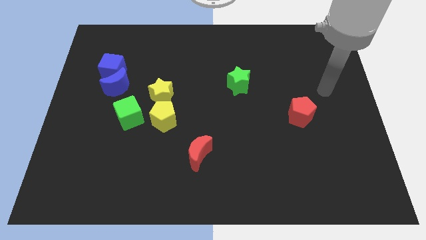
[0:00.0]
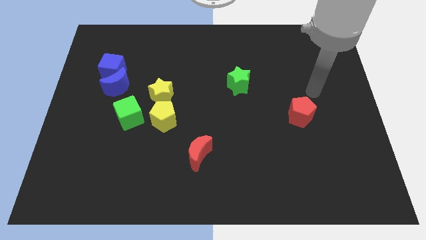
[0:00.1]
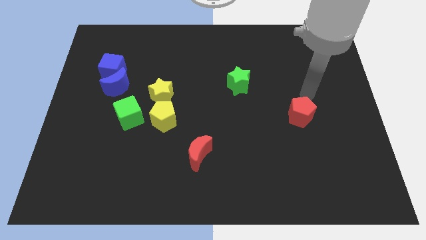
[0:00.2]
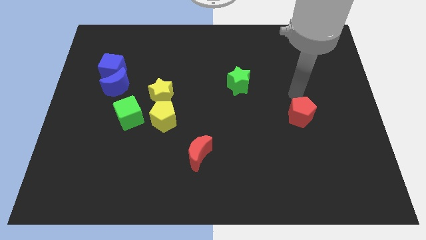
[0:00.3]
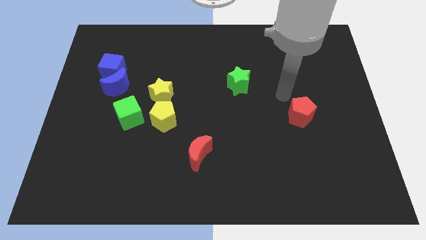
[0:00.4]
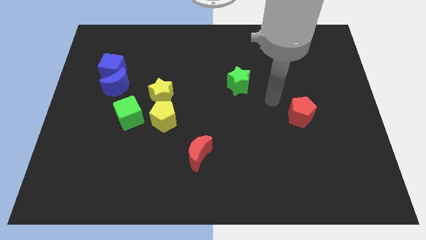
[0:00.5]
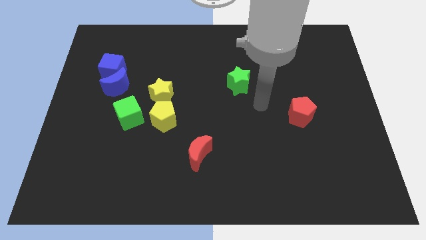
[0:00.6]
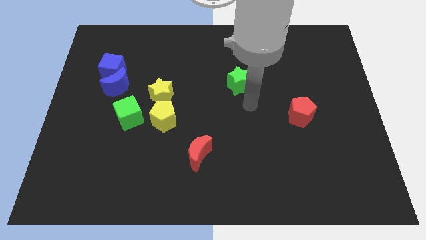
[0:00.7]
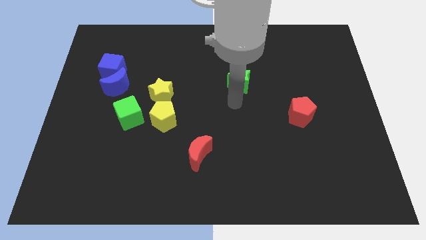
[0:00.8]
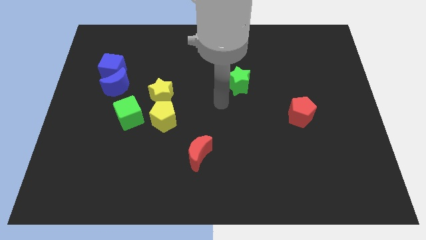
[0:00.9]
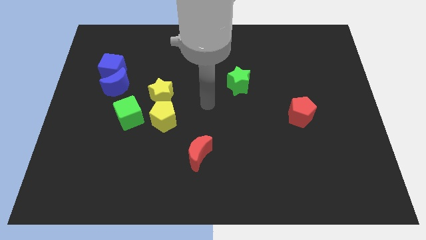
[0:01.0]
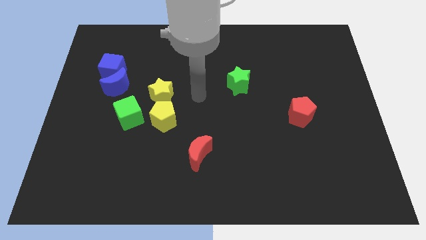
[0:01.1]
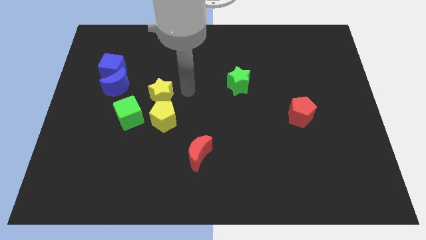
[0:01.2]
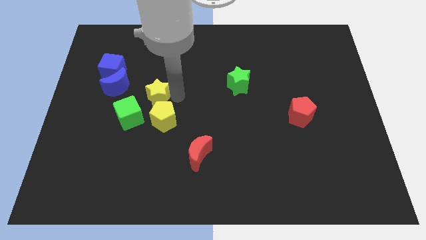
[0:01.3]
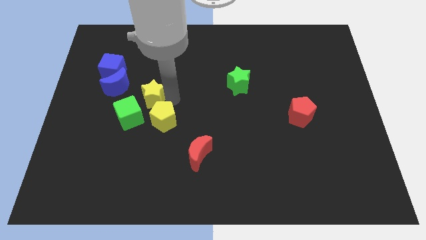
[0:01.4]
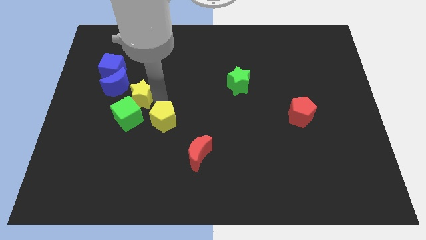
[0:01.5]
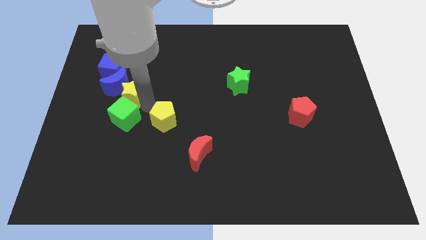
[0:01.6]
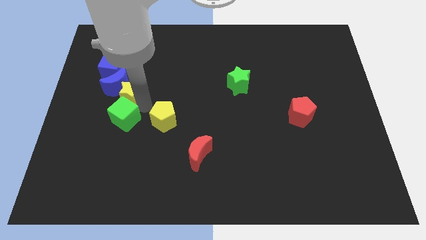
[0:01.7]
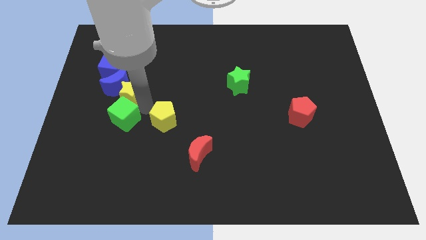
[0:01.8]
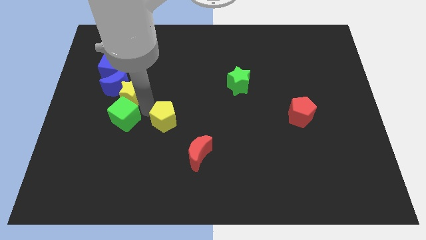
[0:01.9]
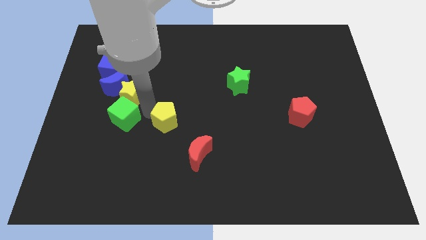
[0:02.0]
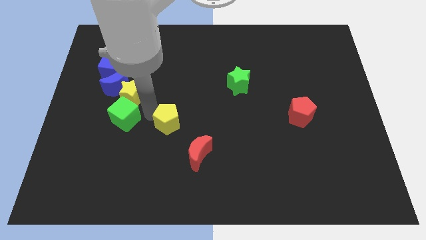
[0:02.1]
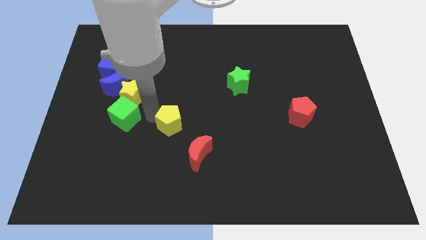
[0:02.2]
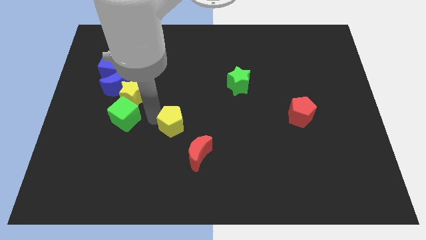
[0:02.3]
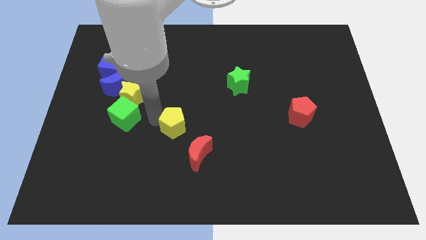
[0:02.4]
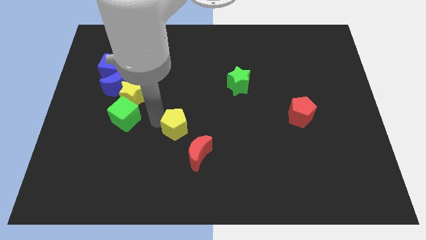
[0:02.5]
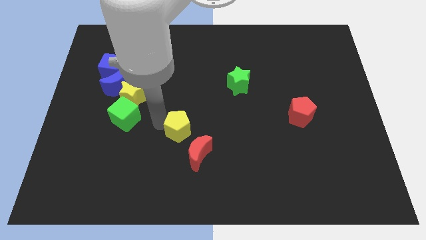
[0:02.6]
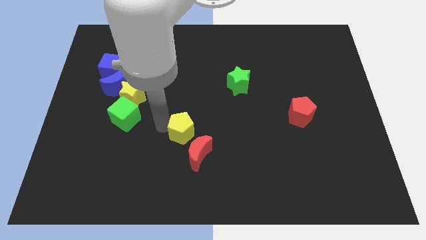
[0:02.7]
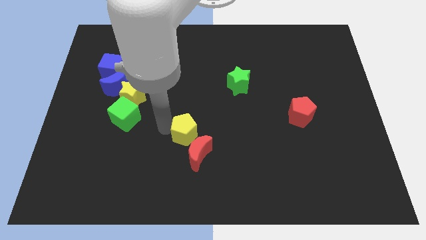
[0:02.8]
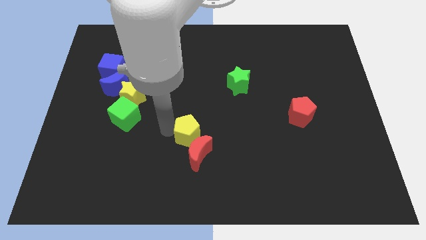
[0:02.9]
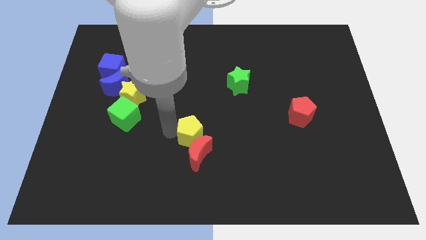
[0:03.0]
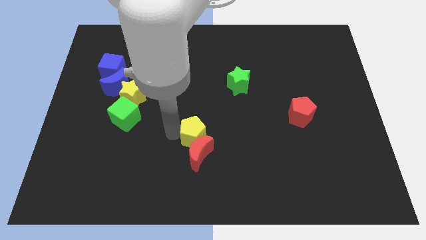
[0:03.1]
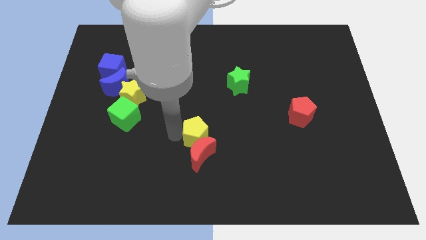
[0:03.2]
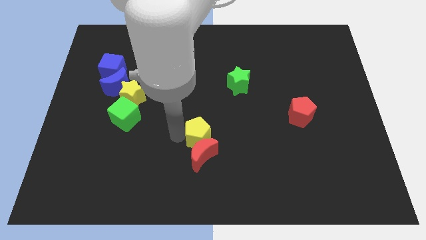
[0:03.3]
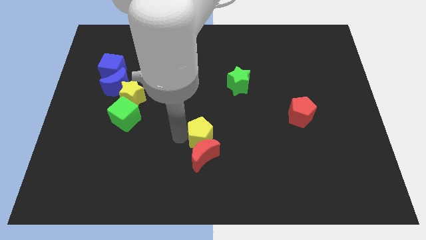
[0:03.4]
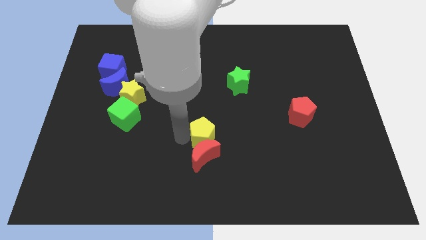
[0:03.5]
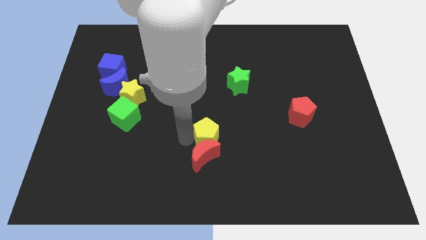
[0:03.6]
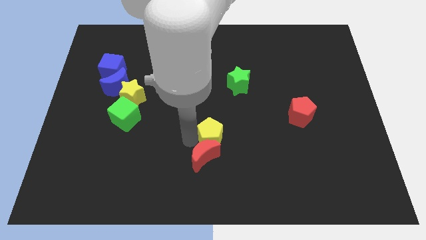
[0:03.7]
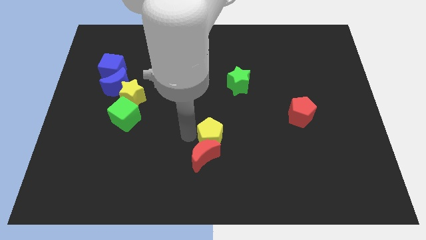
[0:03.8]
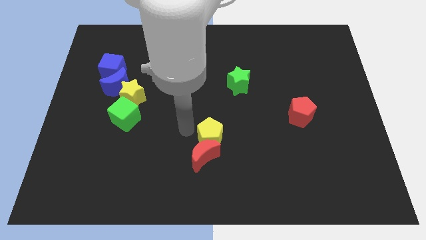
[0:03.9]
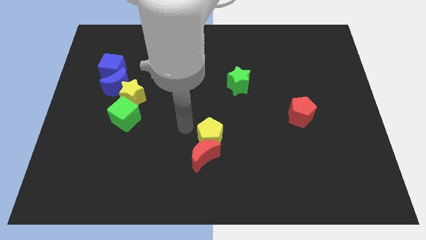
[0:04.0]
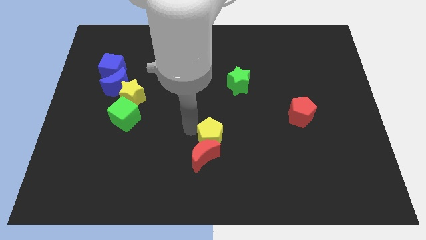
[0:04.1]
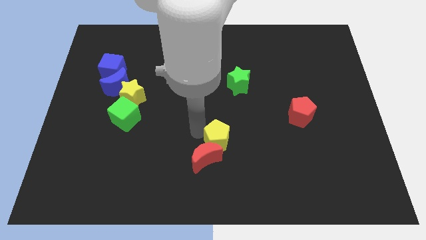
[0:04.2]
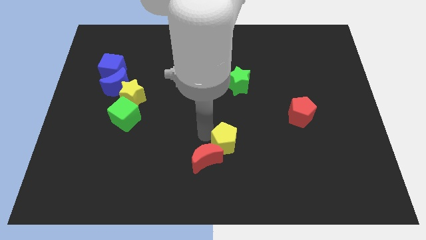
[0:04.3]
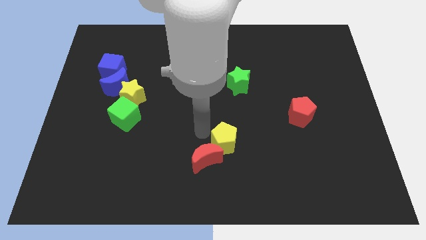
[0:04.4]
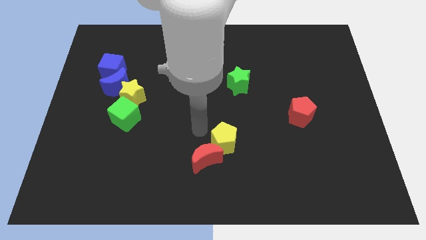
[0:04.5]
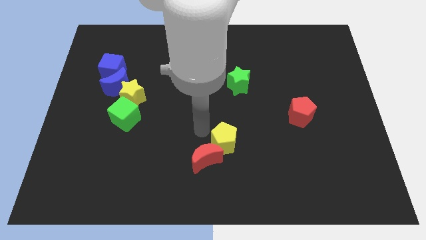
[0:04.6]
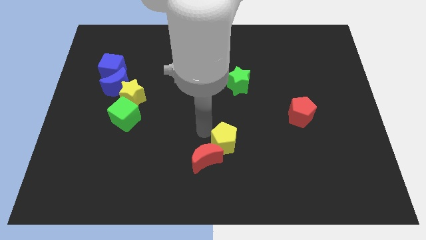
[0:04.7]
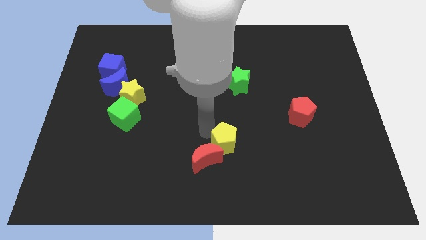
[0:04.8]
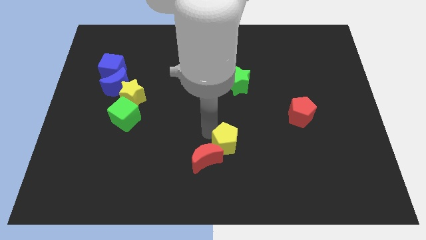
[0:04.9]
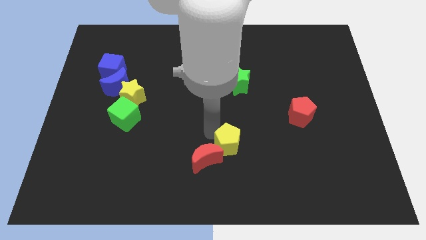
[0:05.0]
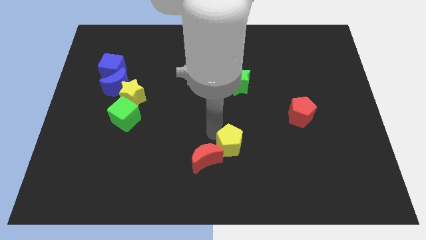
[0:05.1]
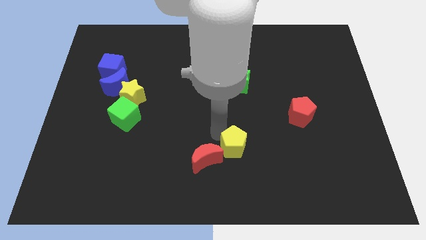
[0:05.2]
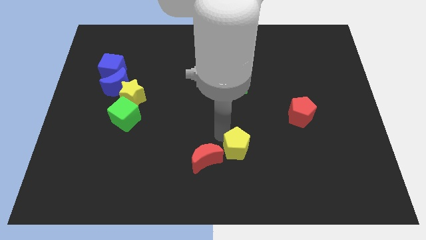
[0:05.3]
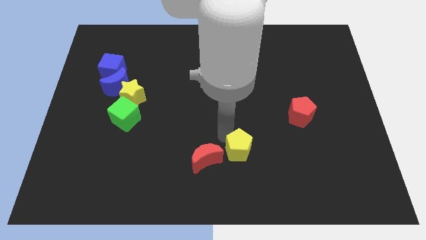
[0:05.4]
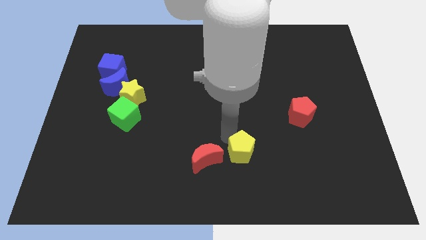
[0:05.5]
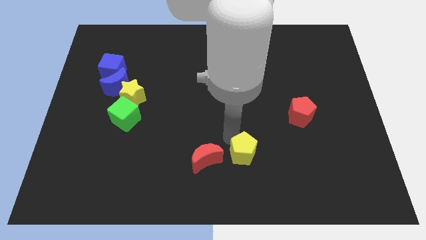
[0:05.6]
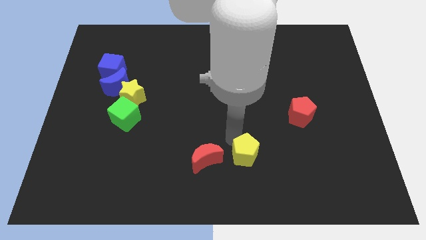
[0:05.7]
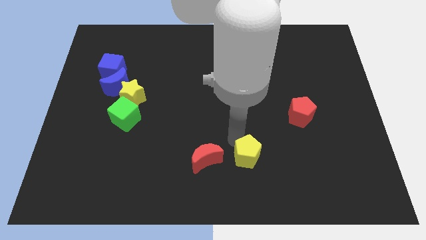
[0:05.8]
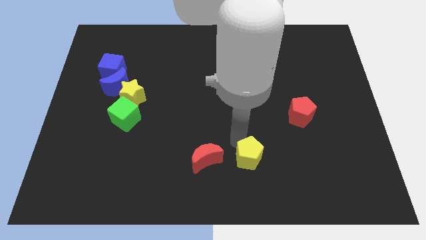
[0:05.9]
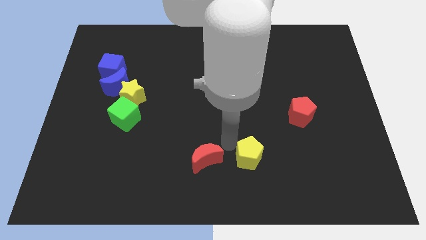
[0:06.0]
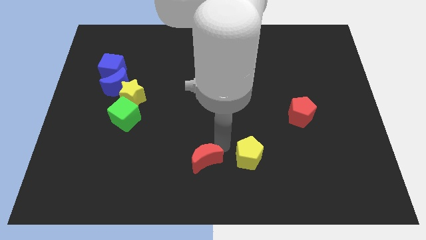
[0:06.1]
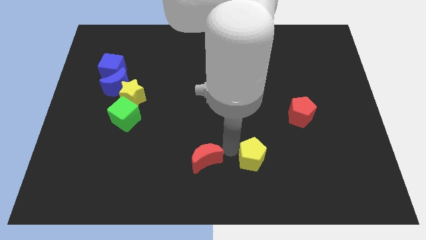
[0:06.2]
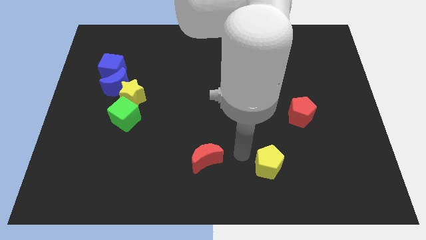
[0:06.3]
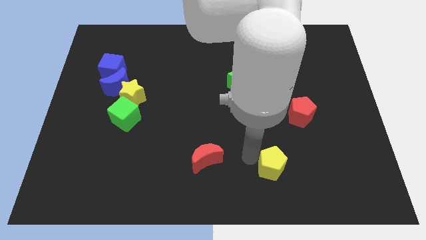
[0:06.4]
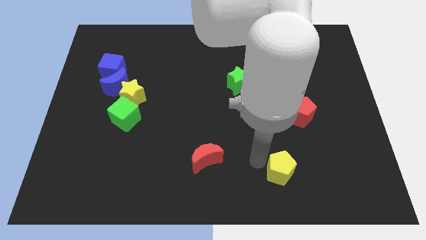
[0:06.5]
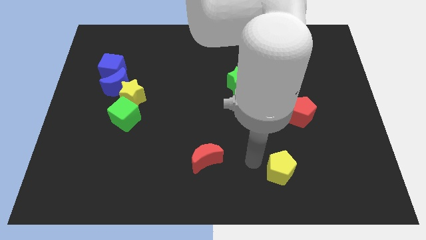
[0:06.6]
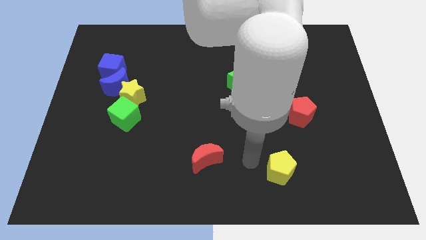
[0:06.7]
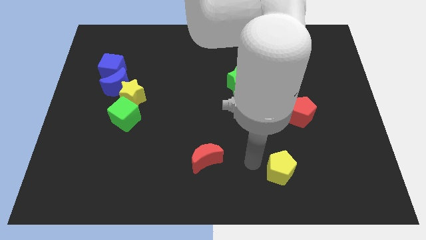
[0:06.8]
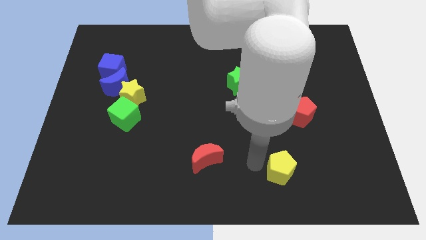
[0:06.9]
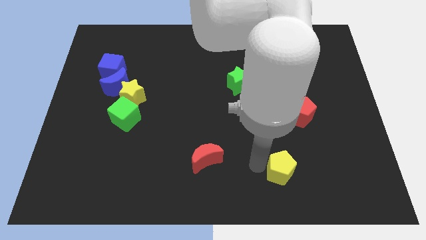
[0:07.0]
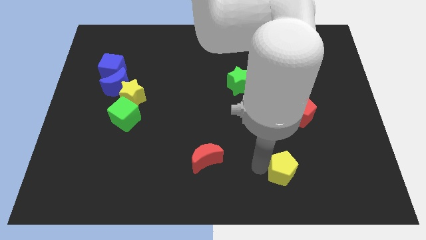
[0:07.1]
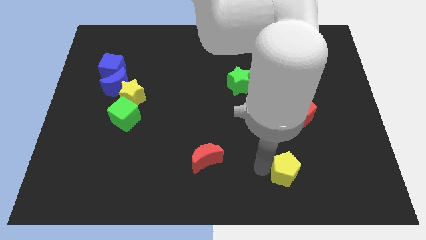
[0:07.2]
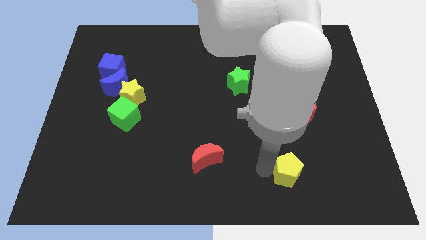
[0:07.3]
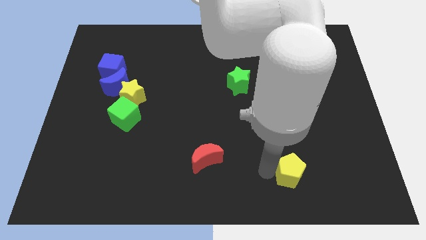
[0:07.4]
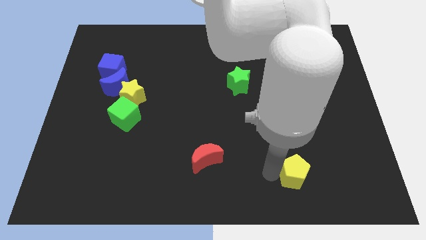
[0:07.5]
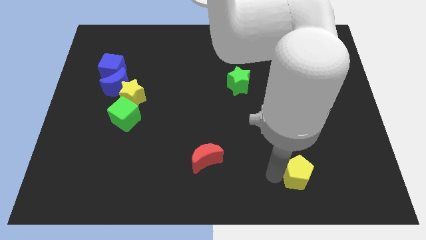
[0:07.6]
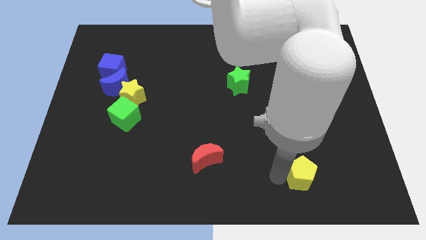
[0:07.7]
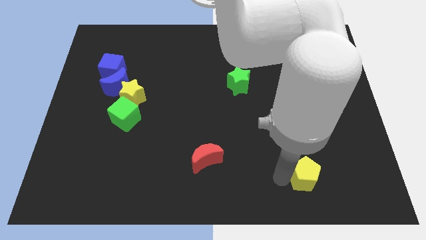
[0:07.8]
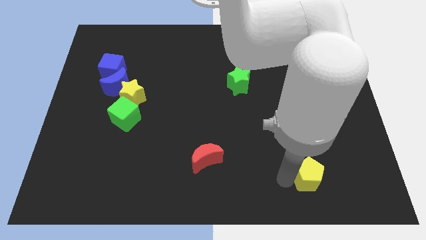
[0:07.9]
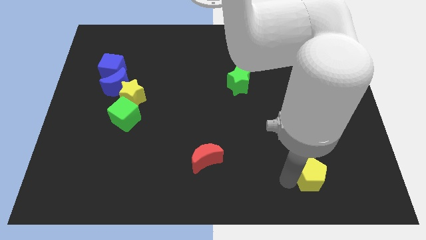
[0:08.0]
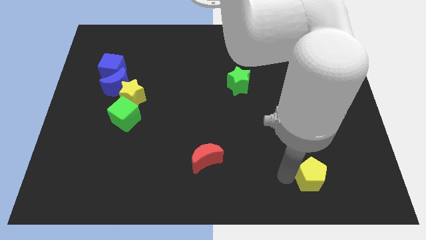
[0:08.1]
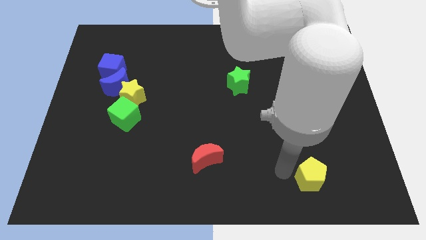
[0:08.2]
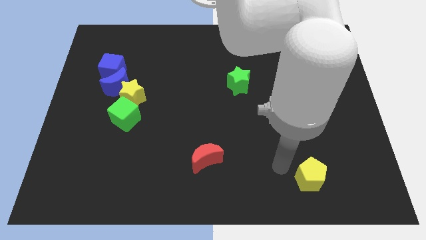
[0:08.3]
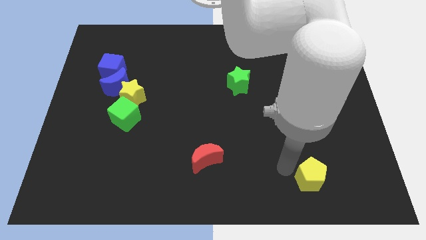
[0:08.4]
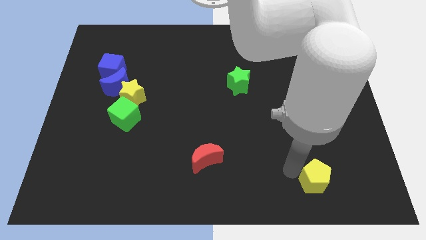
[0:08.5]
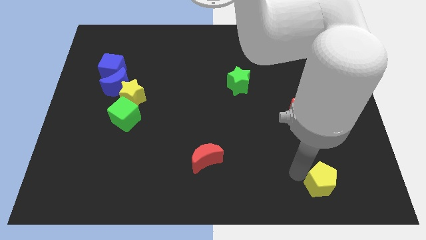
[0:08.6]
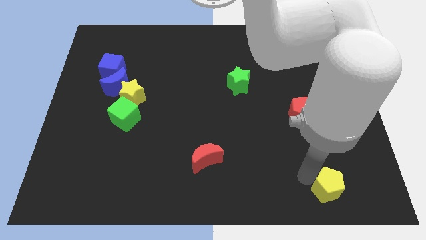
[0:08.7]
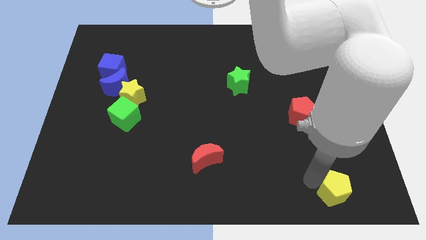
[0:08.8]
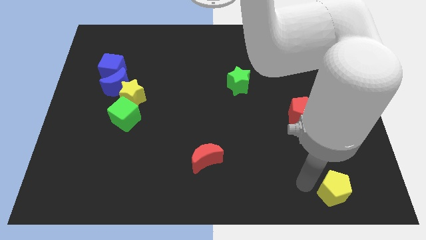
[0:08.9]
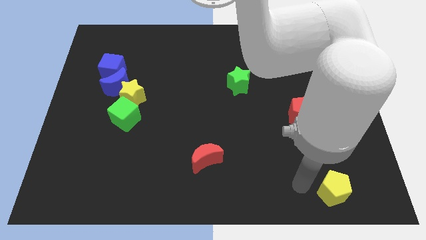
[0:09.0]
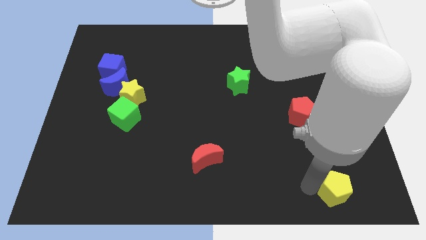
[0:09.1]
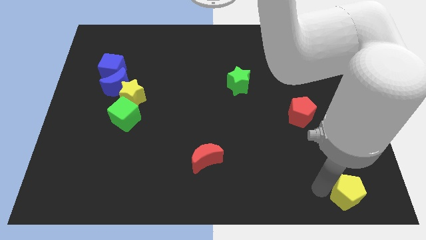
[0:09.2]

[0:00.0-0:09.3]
slide the yellow pentagon to the lower right corner
